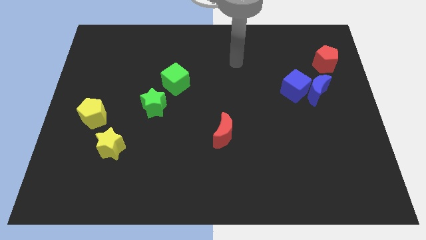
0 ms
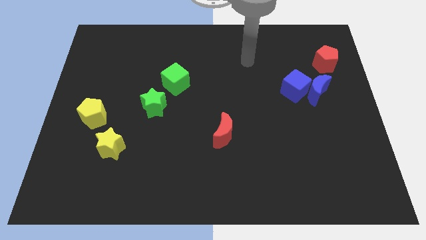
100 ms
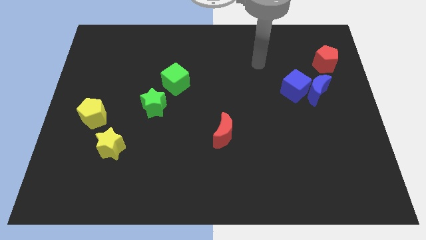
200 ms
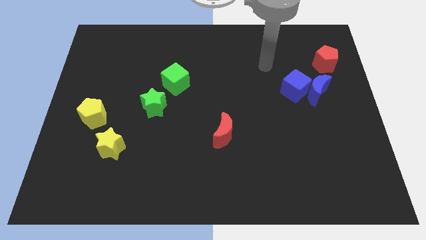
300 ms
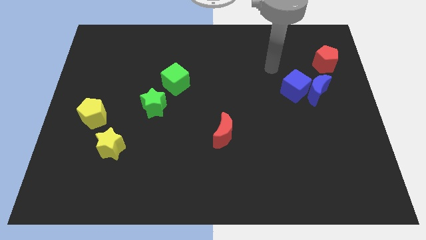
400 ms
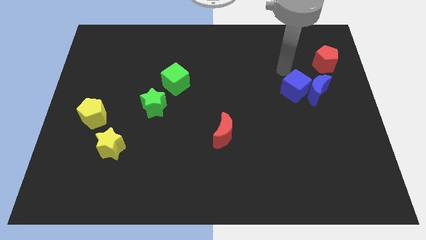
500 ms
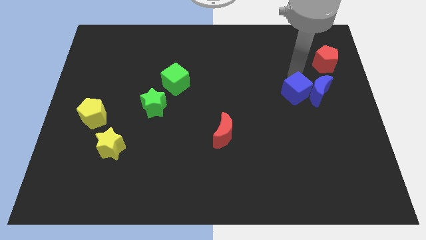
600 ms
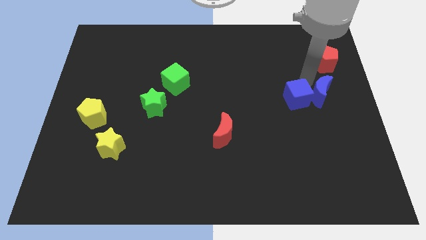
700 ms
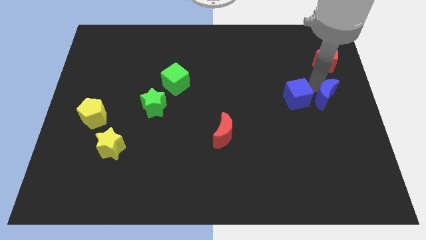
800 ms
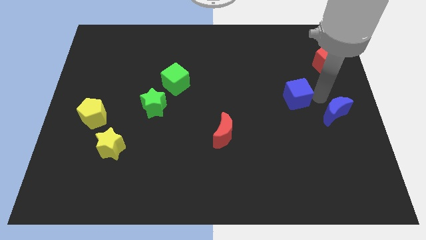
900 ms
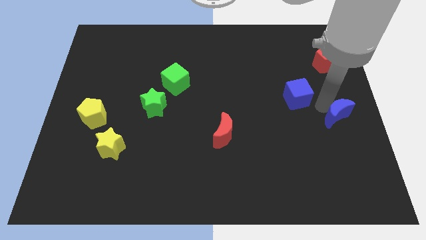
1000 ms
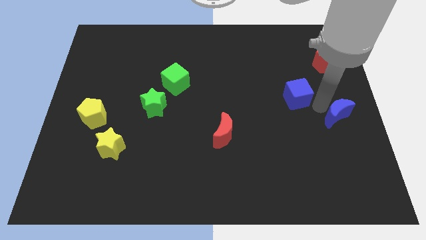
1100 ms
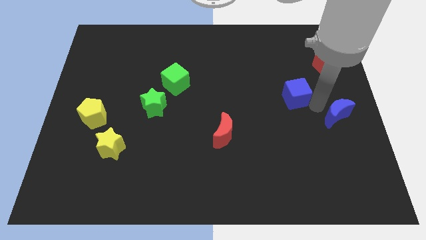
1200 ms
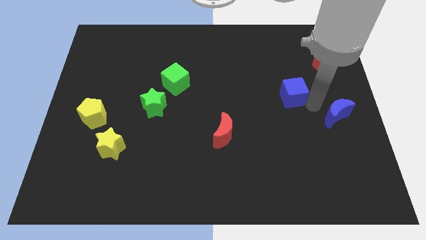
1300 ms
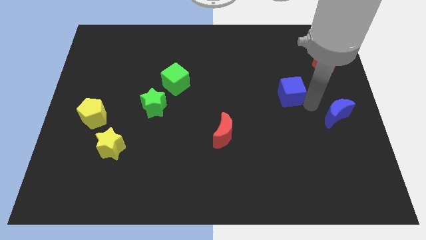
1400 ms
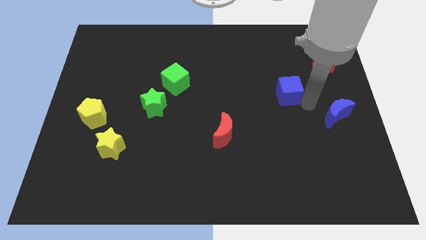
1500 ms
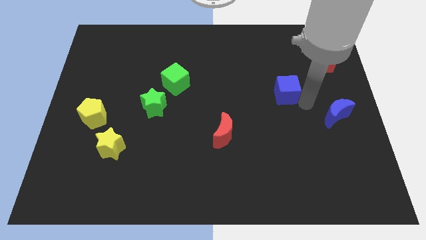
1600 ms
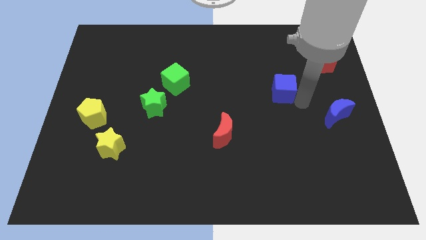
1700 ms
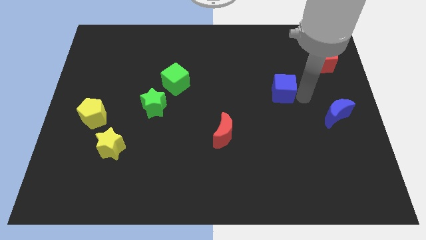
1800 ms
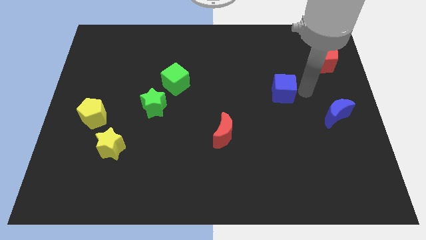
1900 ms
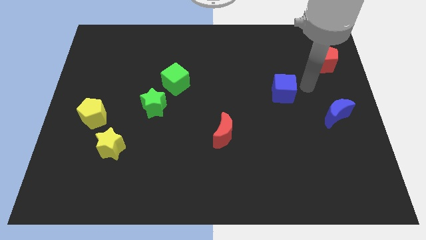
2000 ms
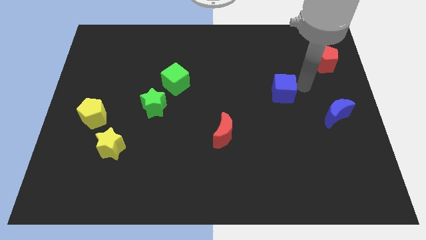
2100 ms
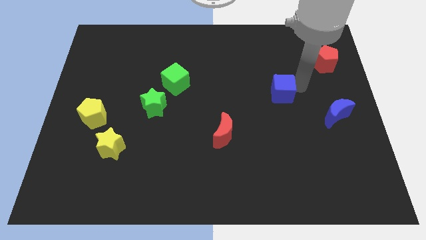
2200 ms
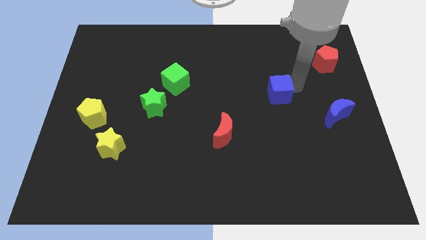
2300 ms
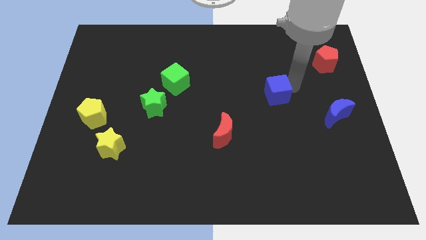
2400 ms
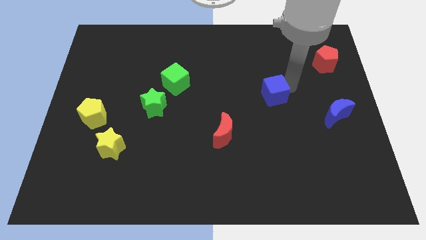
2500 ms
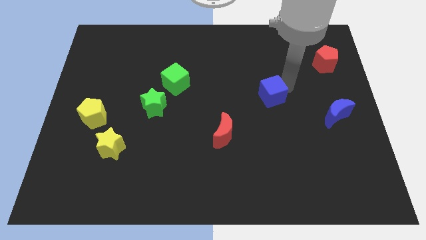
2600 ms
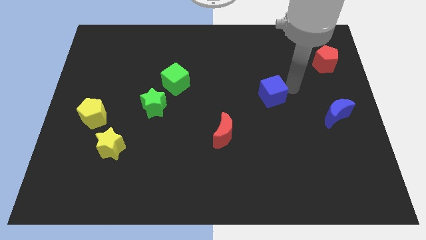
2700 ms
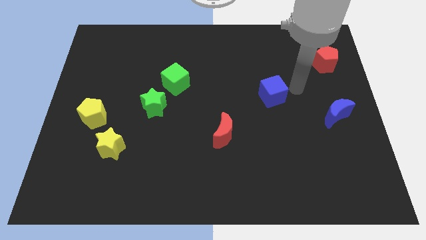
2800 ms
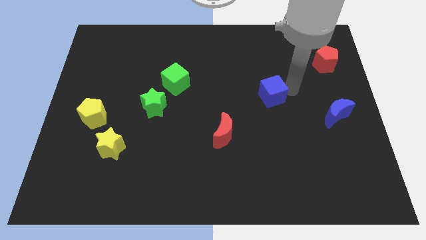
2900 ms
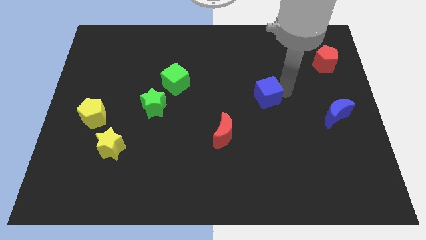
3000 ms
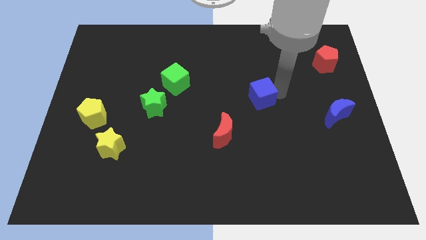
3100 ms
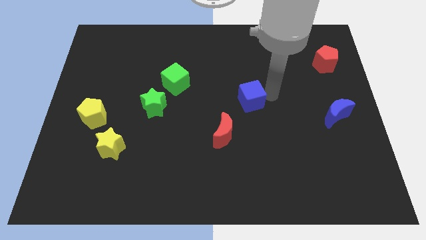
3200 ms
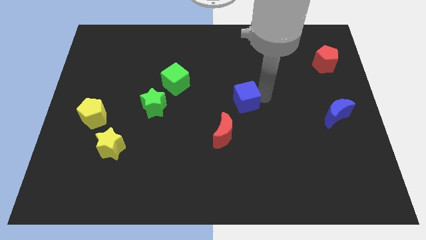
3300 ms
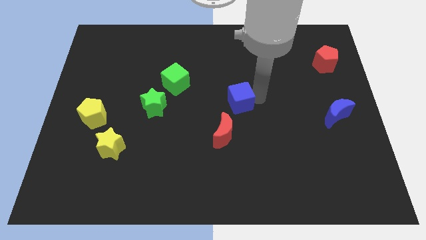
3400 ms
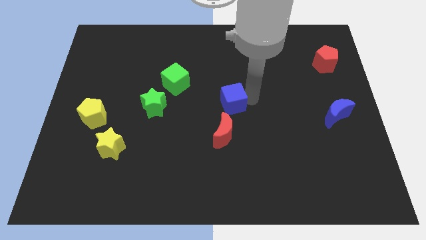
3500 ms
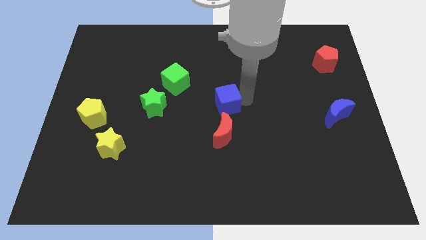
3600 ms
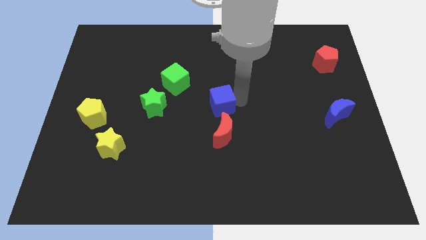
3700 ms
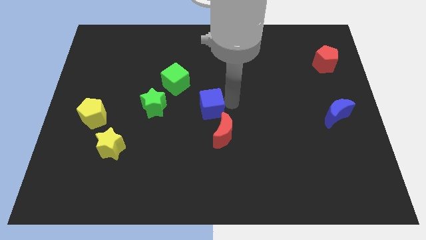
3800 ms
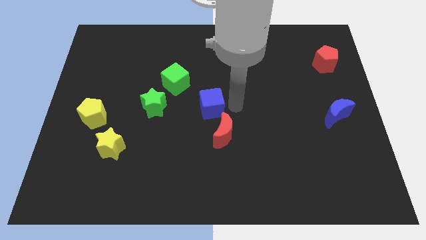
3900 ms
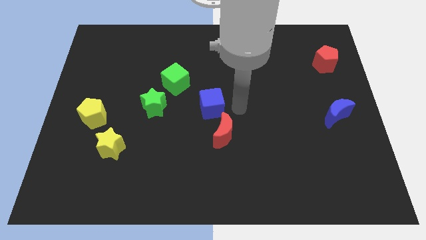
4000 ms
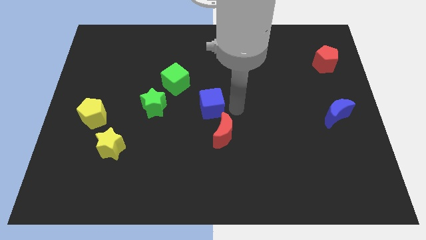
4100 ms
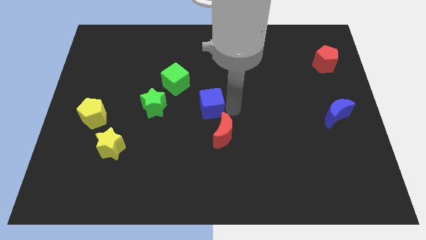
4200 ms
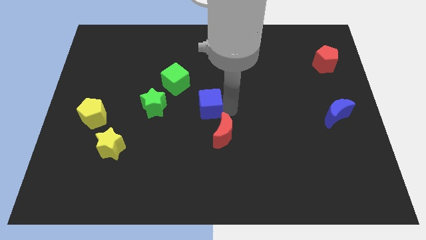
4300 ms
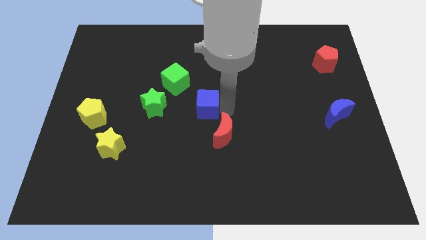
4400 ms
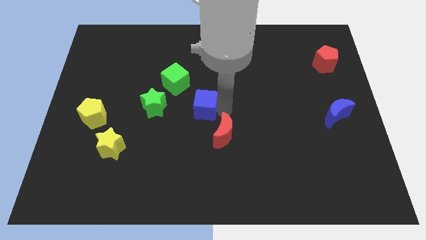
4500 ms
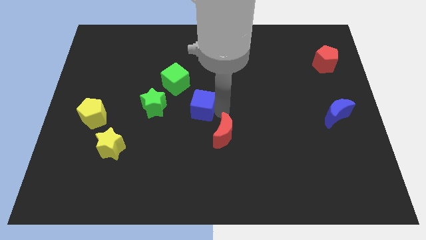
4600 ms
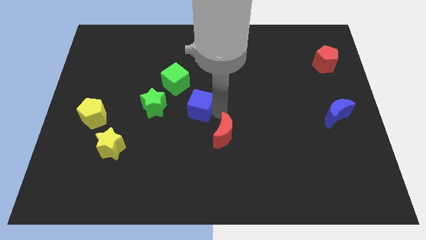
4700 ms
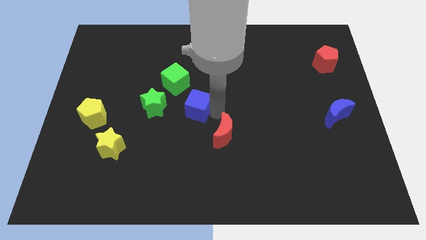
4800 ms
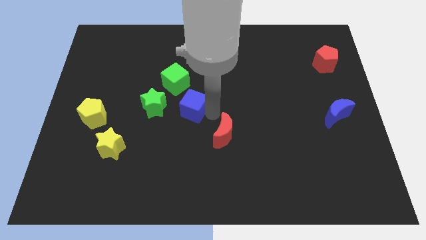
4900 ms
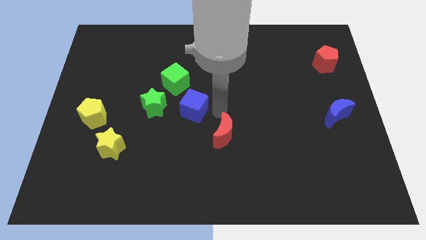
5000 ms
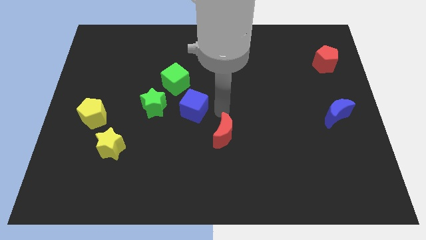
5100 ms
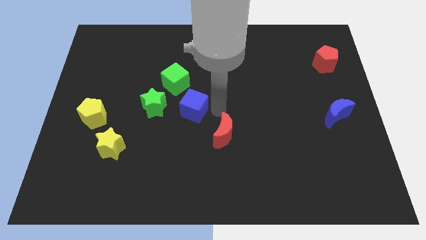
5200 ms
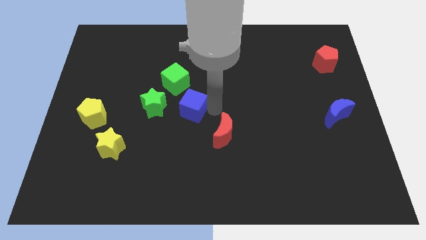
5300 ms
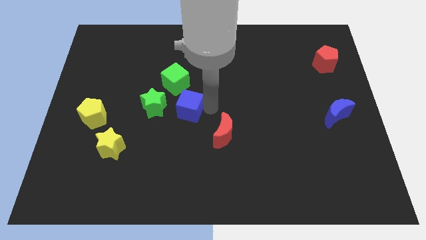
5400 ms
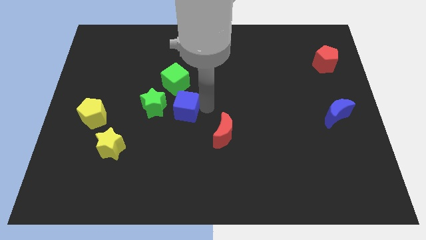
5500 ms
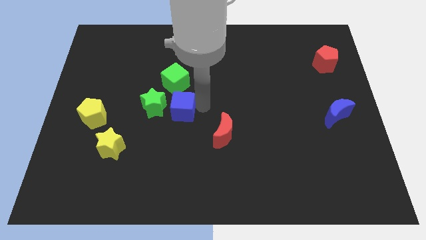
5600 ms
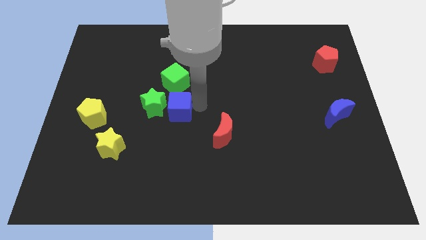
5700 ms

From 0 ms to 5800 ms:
put the blue cube next to the green star

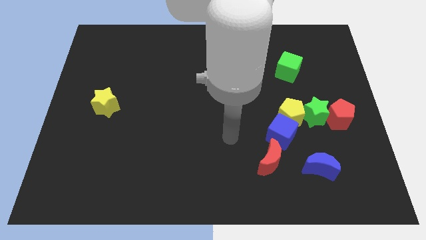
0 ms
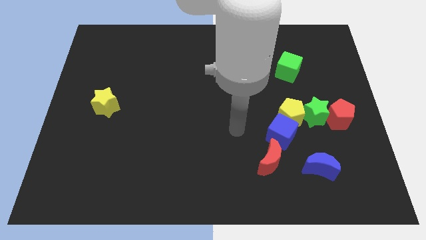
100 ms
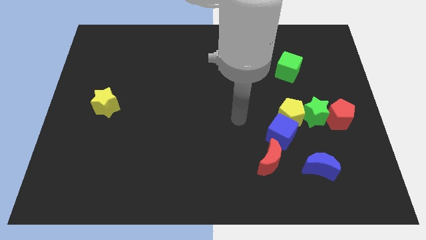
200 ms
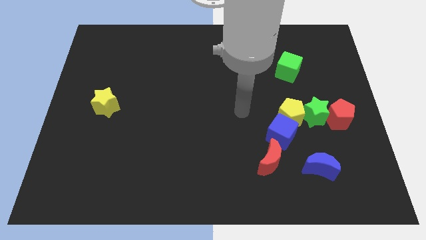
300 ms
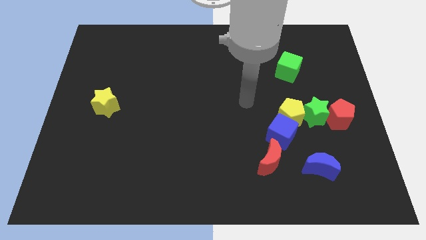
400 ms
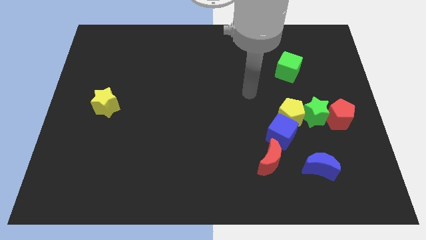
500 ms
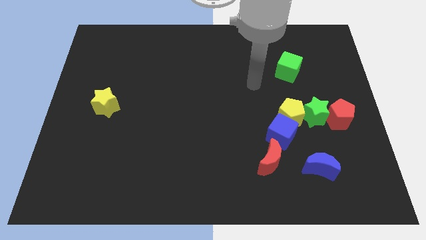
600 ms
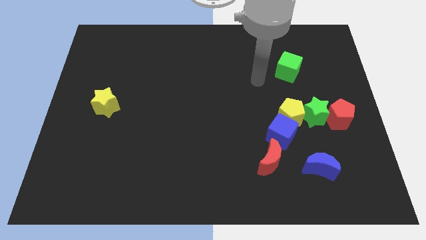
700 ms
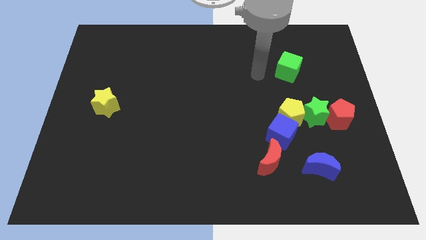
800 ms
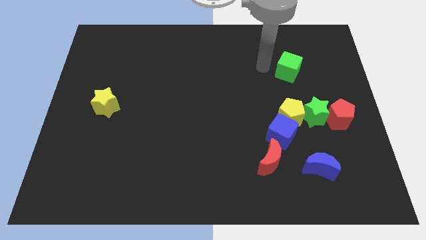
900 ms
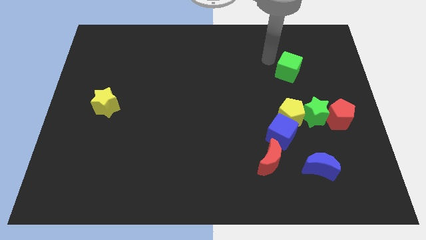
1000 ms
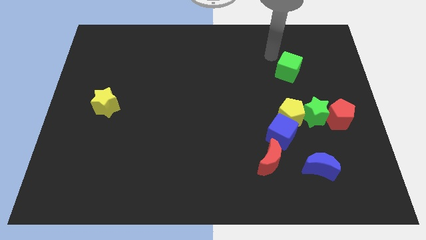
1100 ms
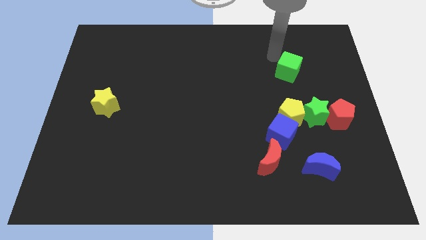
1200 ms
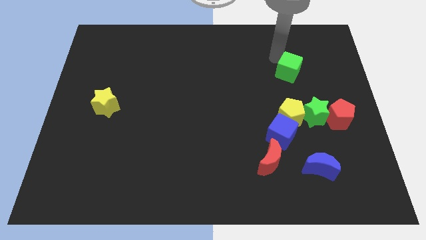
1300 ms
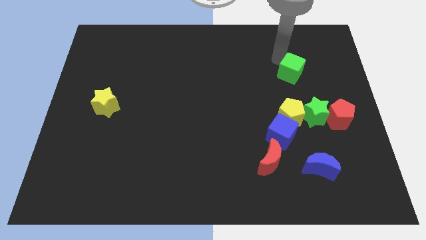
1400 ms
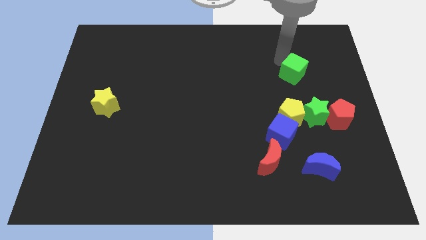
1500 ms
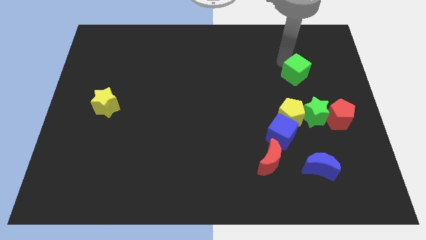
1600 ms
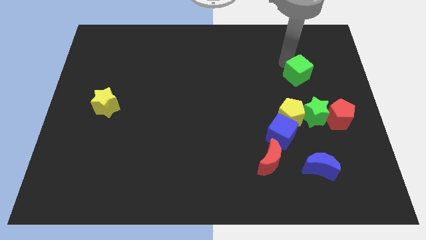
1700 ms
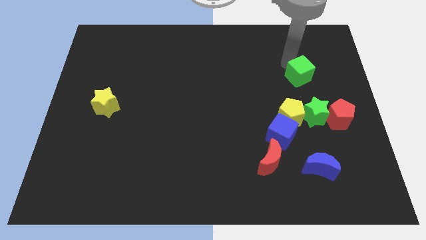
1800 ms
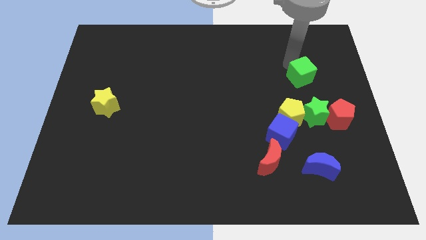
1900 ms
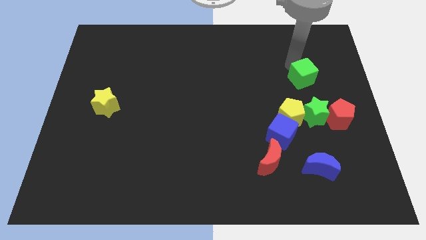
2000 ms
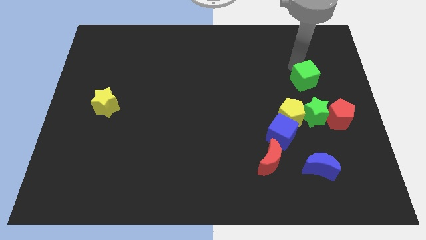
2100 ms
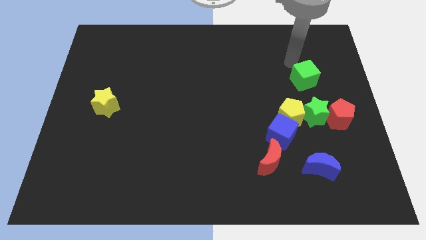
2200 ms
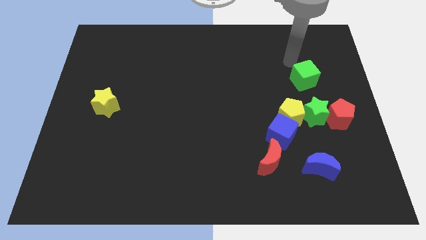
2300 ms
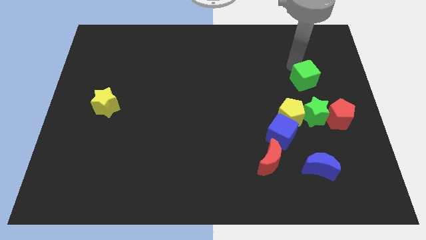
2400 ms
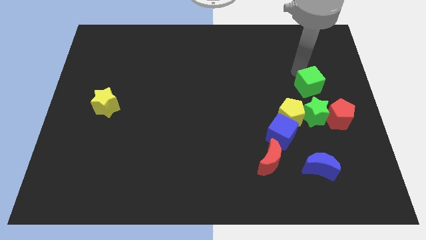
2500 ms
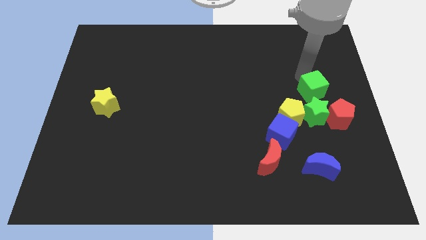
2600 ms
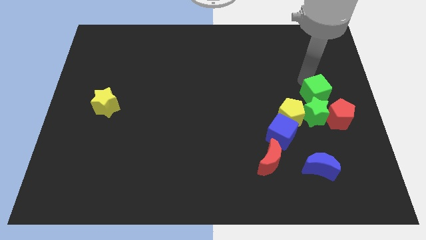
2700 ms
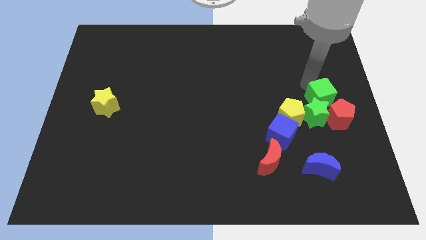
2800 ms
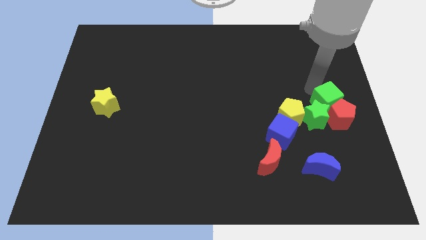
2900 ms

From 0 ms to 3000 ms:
slide the green cube close to the red pentagon
